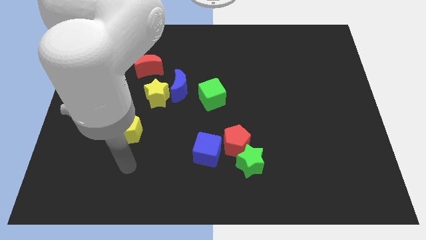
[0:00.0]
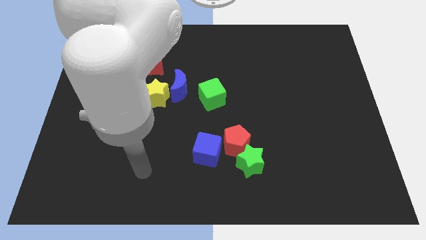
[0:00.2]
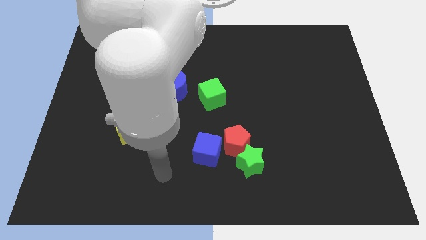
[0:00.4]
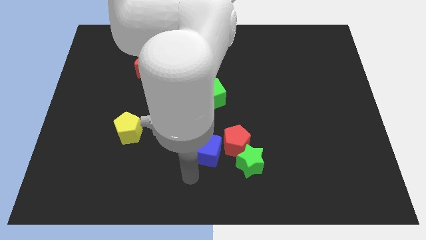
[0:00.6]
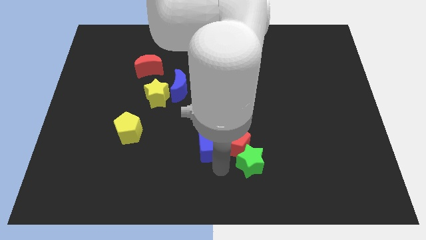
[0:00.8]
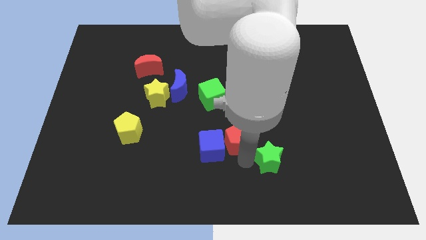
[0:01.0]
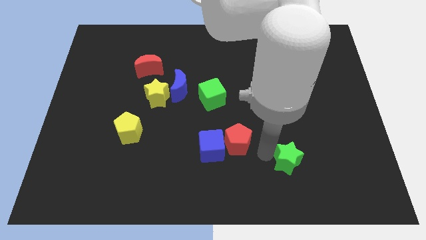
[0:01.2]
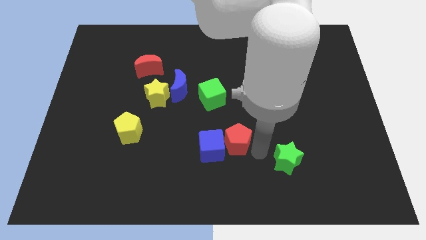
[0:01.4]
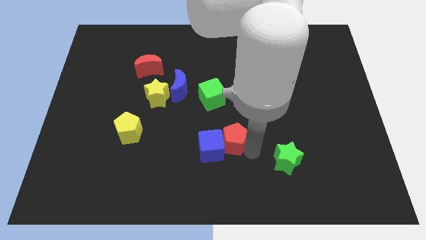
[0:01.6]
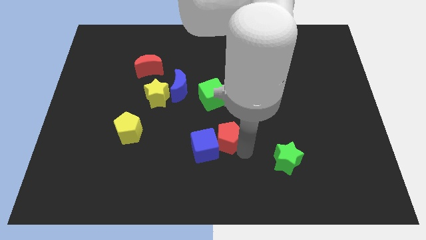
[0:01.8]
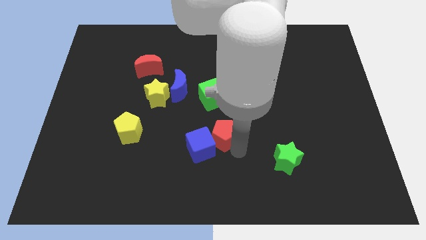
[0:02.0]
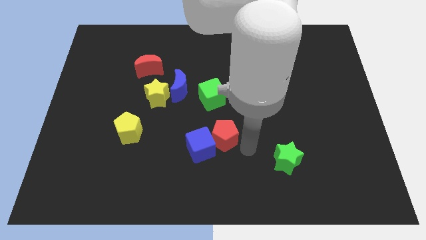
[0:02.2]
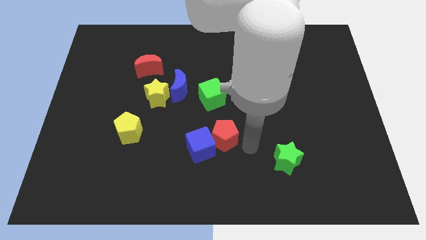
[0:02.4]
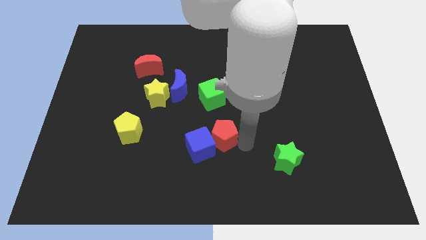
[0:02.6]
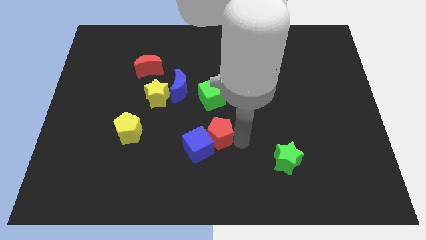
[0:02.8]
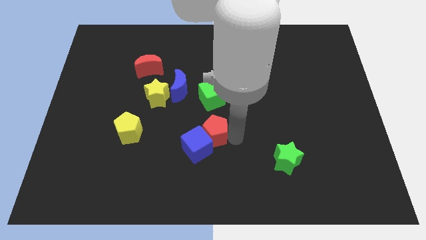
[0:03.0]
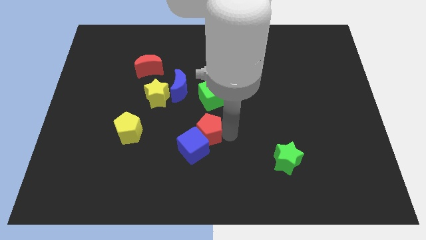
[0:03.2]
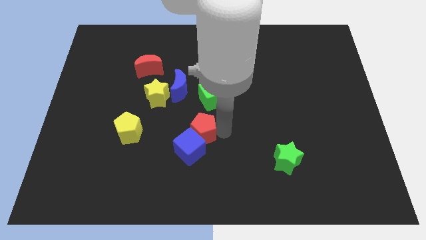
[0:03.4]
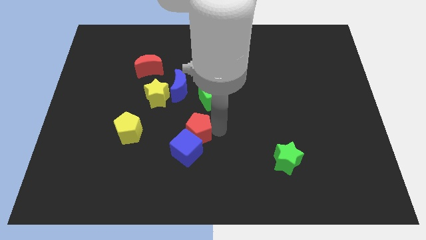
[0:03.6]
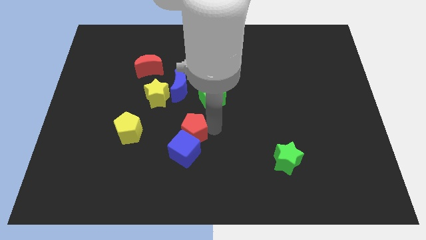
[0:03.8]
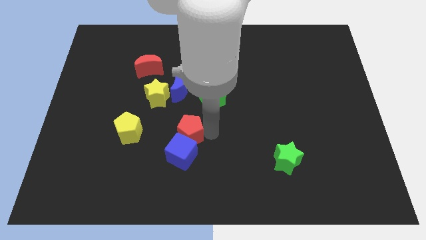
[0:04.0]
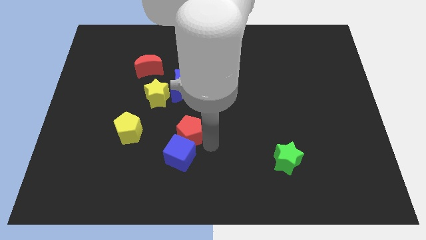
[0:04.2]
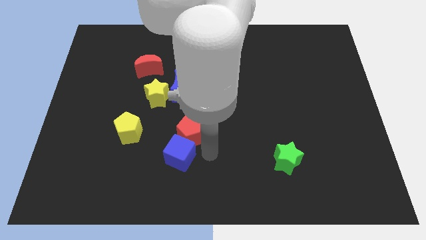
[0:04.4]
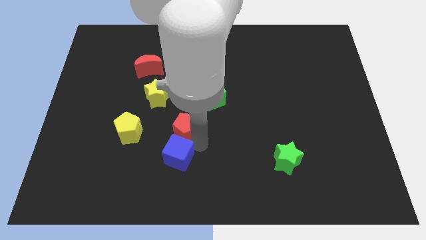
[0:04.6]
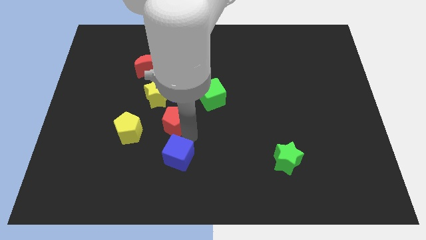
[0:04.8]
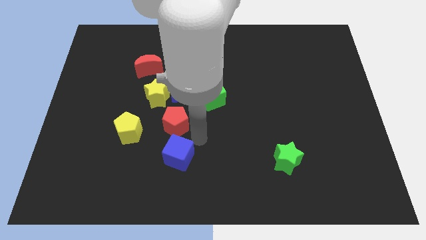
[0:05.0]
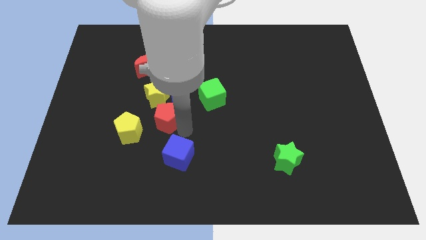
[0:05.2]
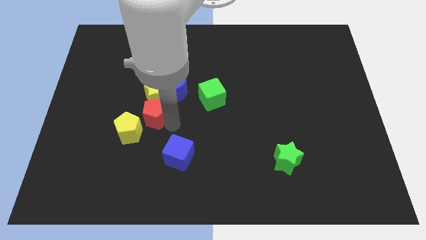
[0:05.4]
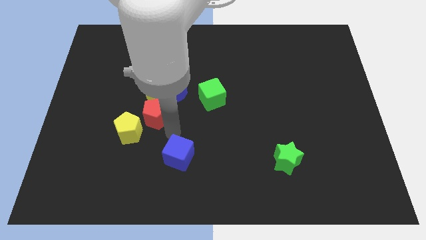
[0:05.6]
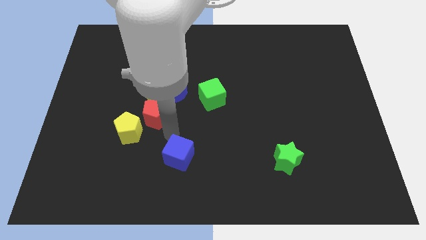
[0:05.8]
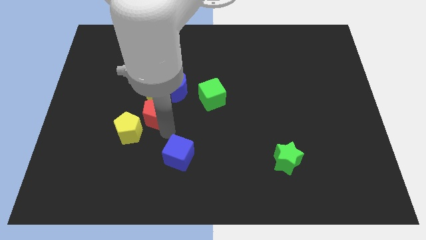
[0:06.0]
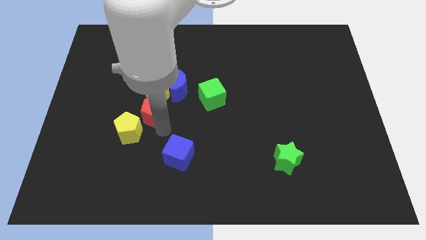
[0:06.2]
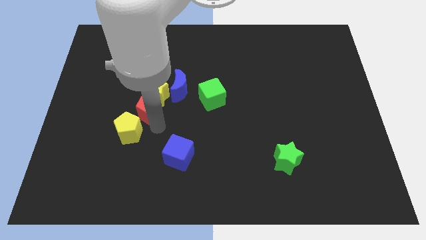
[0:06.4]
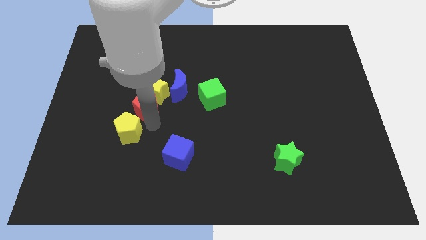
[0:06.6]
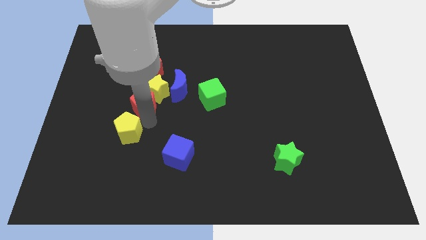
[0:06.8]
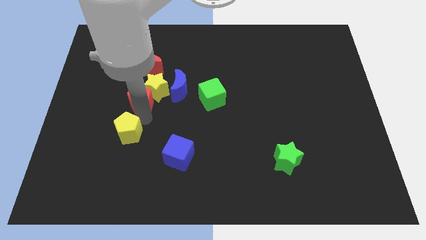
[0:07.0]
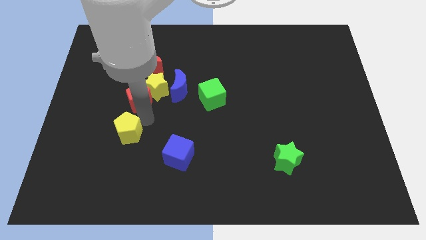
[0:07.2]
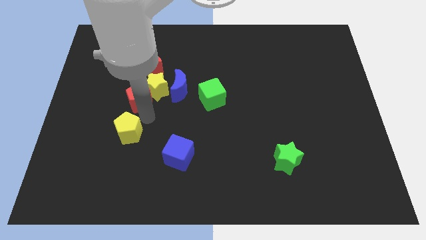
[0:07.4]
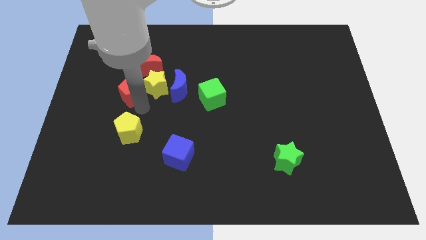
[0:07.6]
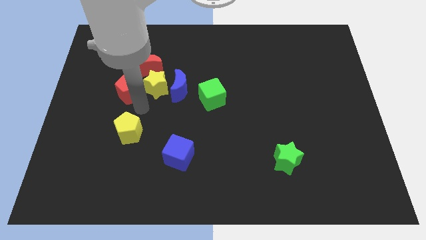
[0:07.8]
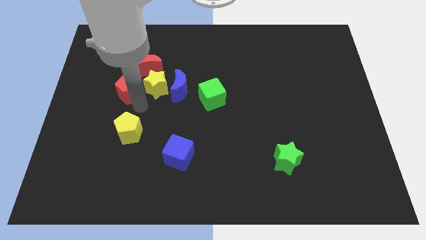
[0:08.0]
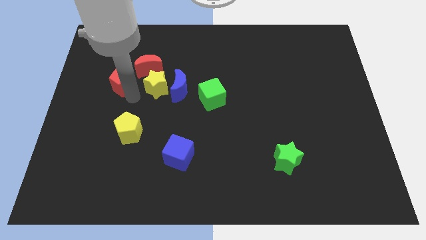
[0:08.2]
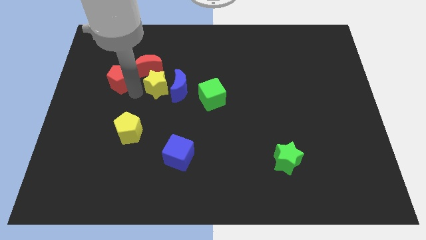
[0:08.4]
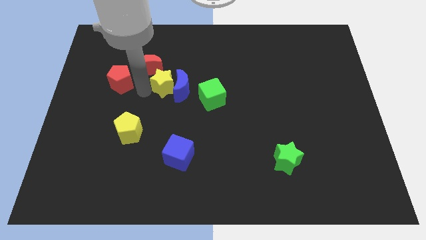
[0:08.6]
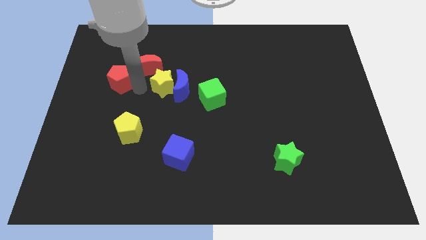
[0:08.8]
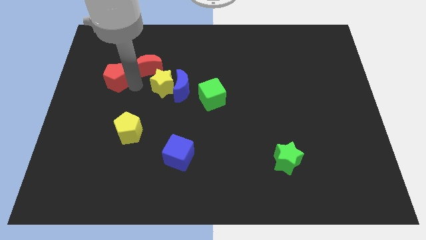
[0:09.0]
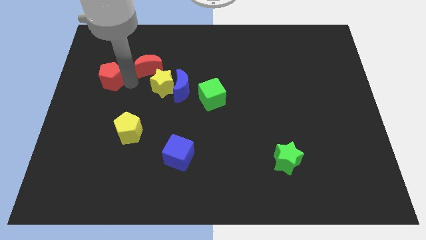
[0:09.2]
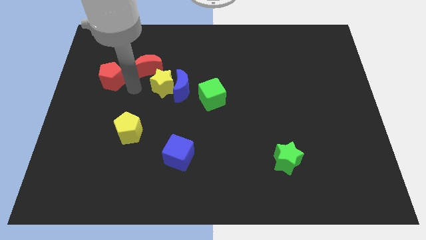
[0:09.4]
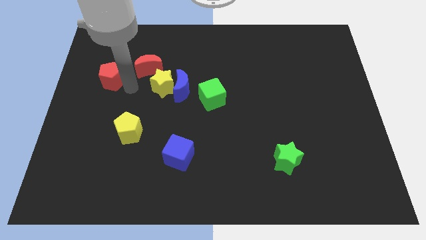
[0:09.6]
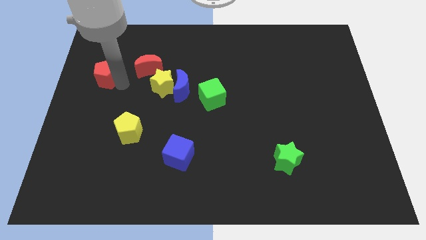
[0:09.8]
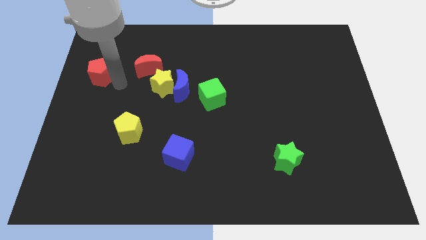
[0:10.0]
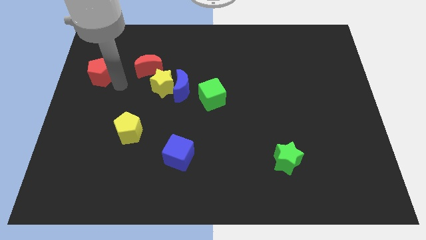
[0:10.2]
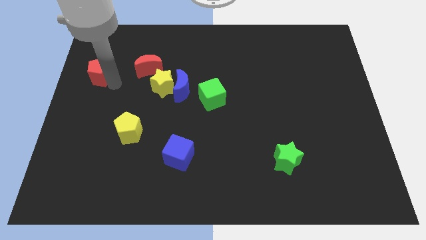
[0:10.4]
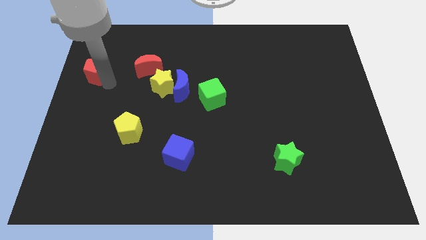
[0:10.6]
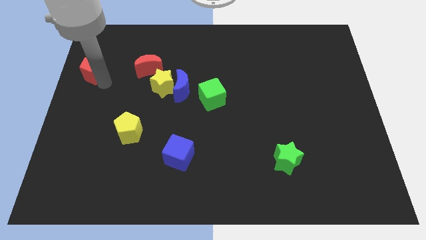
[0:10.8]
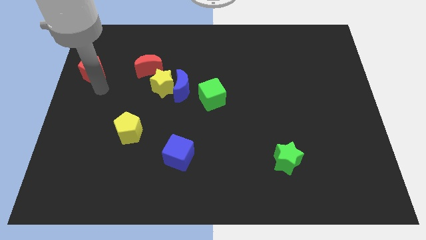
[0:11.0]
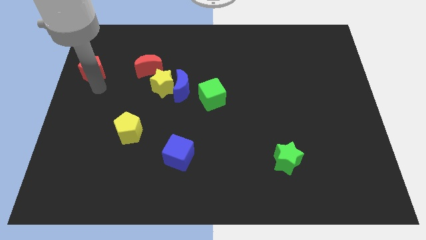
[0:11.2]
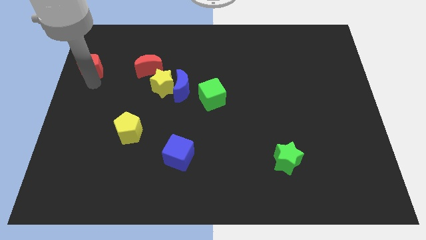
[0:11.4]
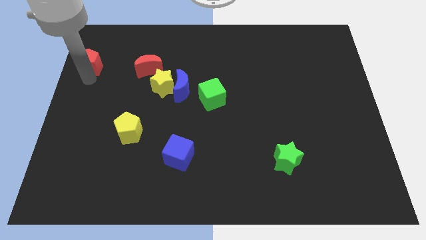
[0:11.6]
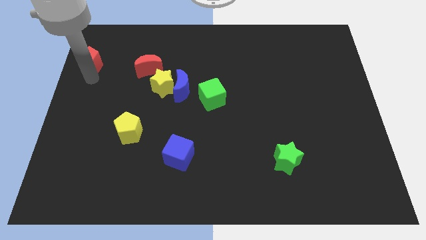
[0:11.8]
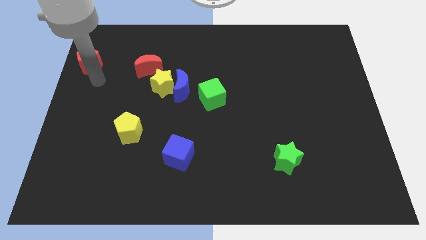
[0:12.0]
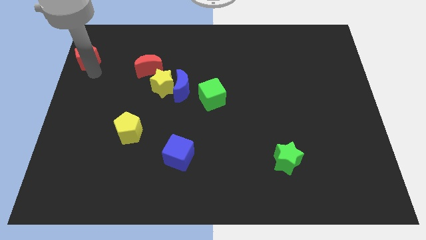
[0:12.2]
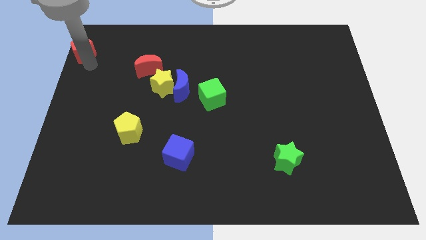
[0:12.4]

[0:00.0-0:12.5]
push the red pentagon to the upper left corner
